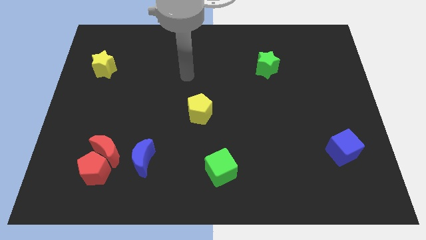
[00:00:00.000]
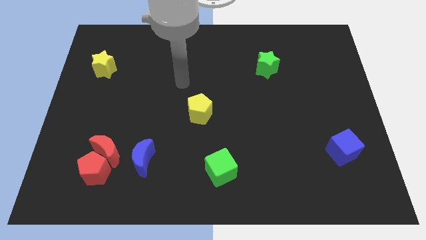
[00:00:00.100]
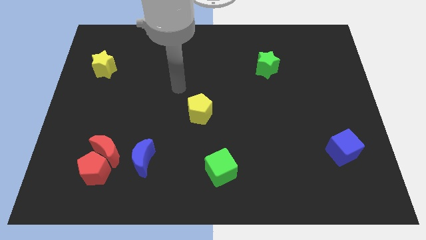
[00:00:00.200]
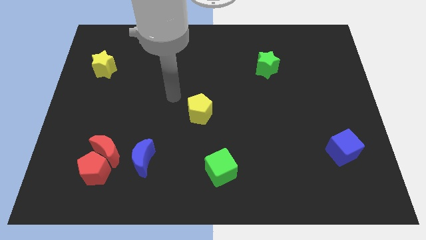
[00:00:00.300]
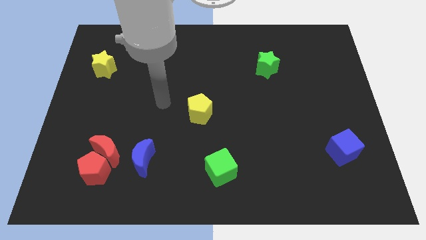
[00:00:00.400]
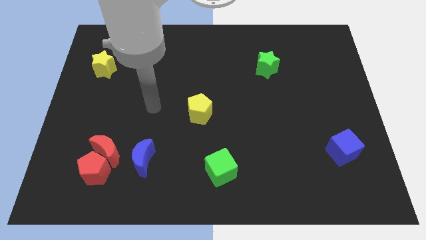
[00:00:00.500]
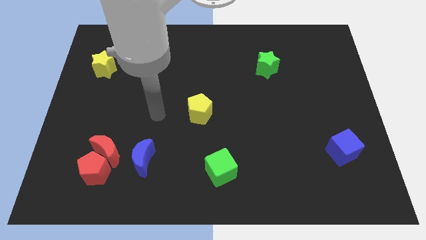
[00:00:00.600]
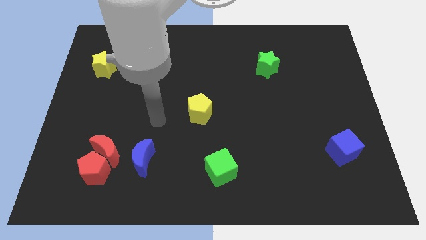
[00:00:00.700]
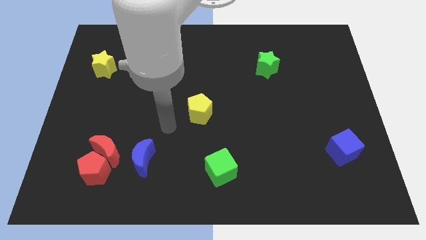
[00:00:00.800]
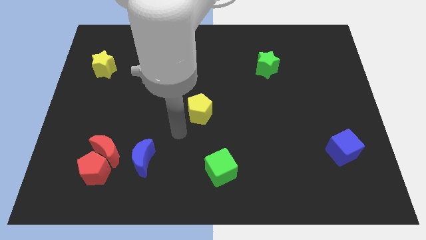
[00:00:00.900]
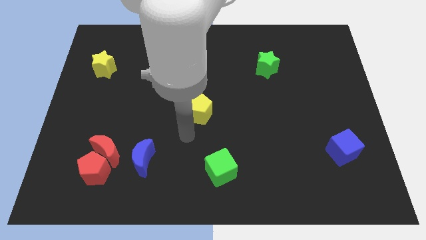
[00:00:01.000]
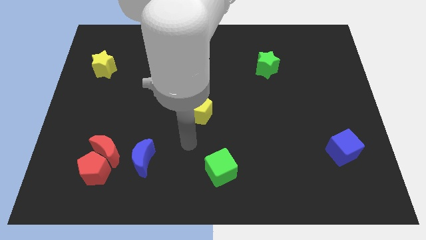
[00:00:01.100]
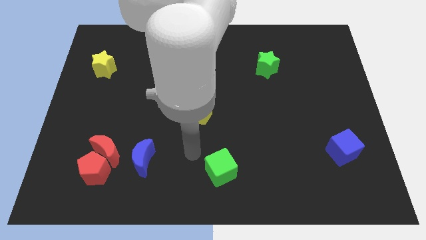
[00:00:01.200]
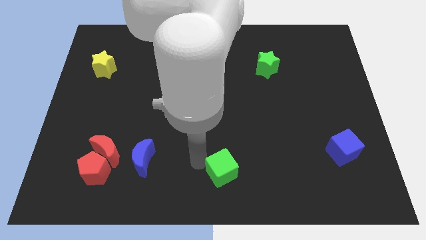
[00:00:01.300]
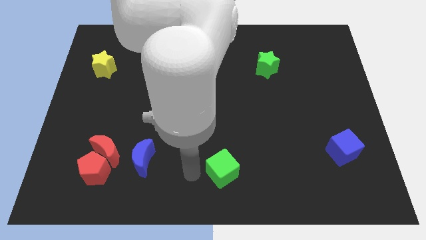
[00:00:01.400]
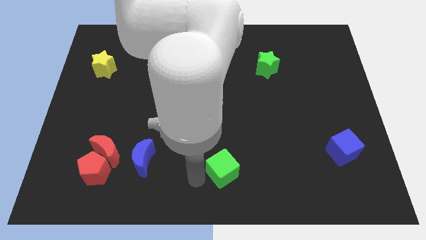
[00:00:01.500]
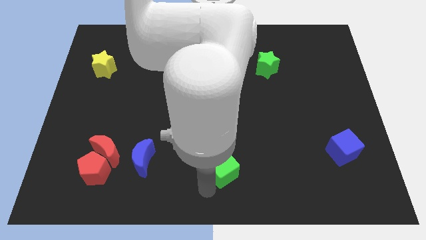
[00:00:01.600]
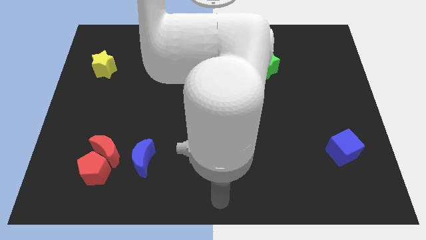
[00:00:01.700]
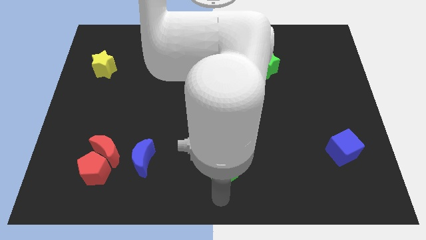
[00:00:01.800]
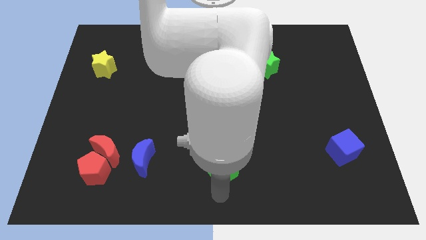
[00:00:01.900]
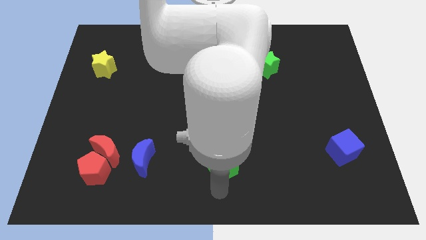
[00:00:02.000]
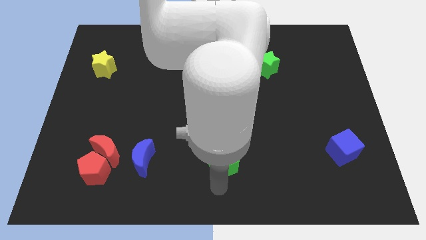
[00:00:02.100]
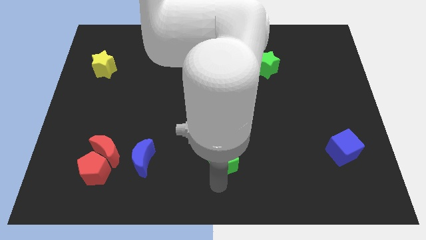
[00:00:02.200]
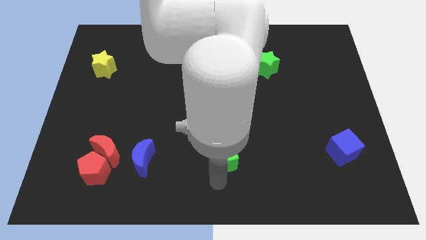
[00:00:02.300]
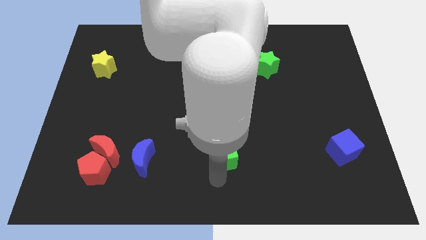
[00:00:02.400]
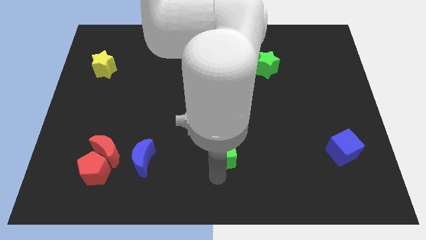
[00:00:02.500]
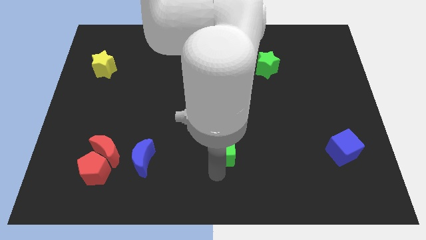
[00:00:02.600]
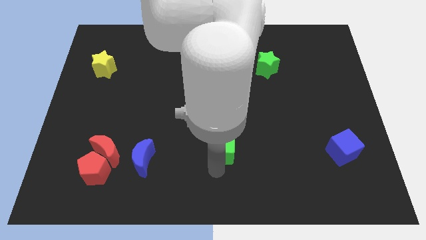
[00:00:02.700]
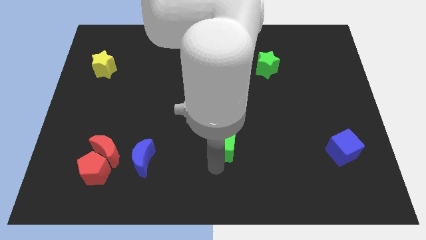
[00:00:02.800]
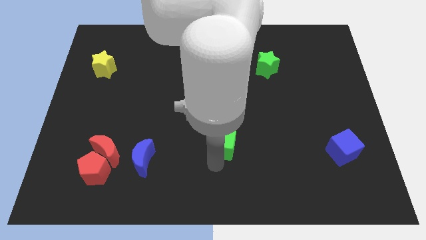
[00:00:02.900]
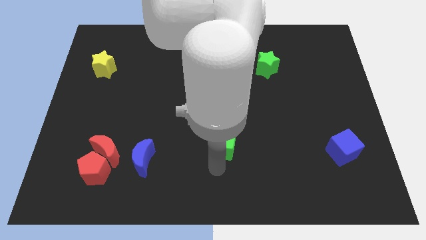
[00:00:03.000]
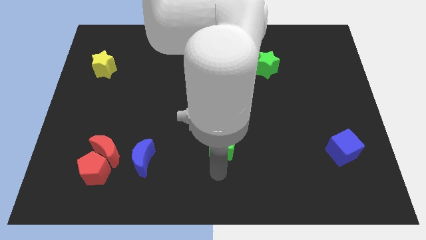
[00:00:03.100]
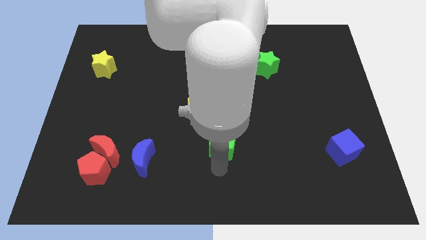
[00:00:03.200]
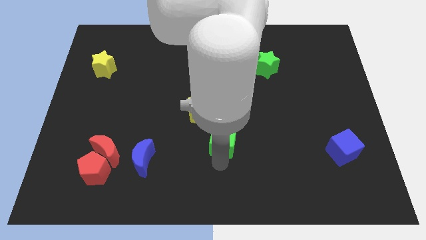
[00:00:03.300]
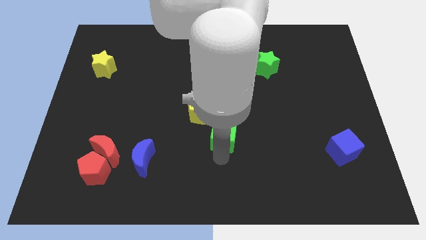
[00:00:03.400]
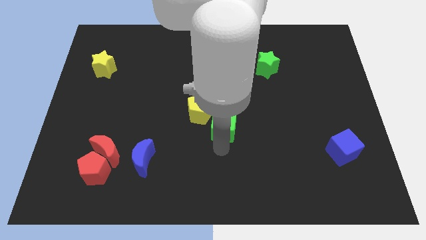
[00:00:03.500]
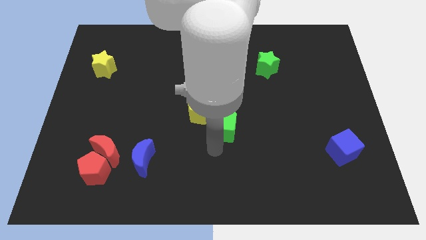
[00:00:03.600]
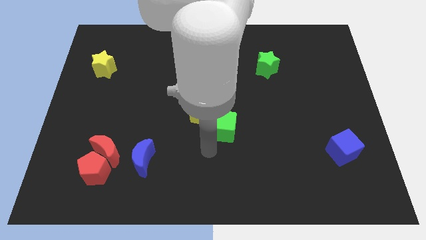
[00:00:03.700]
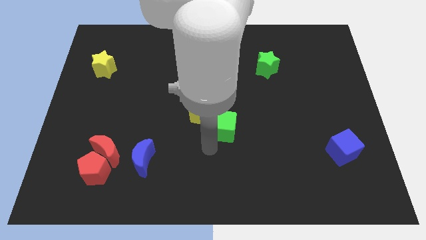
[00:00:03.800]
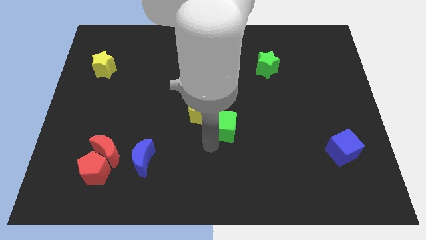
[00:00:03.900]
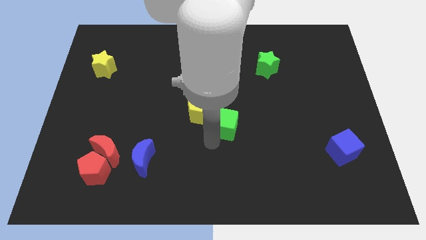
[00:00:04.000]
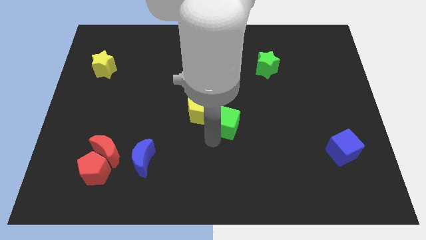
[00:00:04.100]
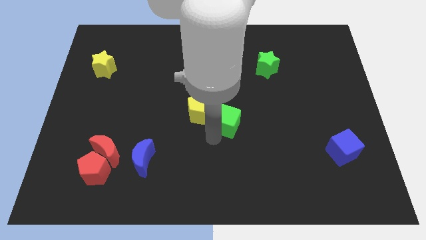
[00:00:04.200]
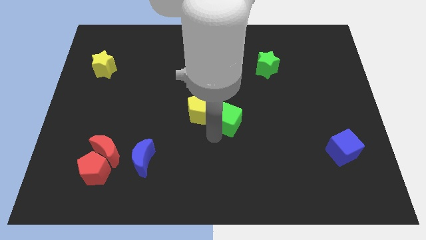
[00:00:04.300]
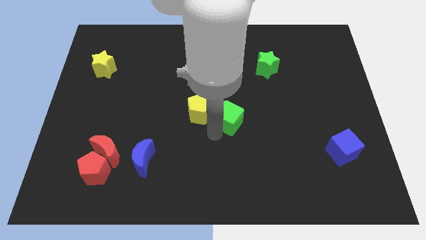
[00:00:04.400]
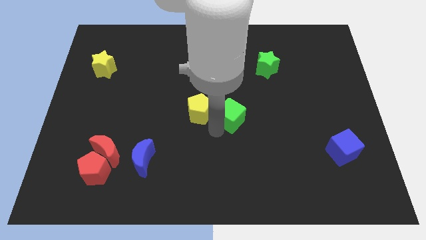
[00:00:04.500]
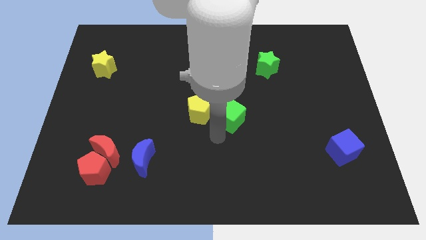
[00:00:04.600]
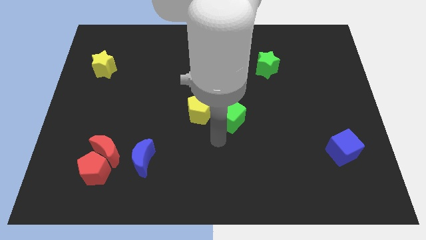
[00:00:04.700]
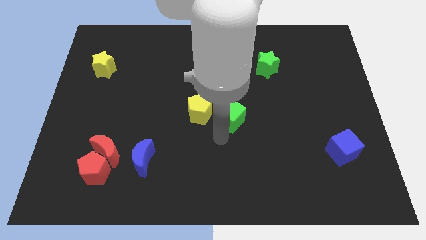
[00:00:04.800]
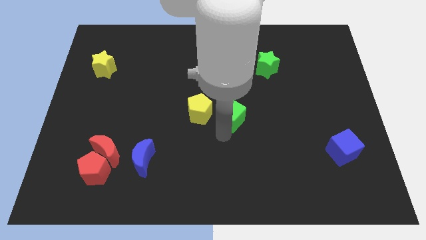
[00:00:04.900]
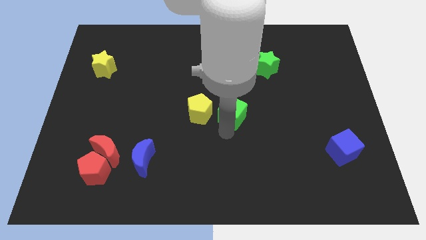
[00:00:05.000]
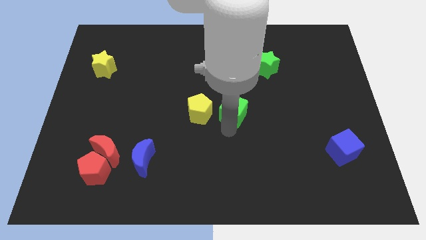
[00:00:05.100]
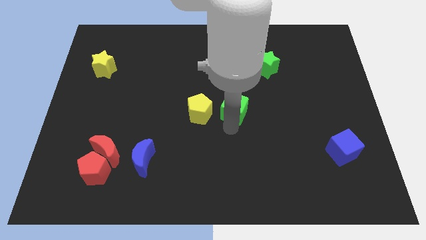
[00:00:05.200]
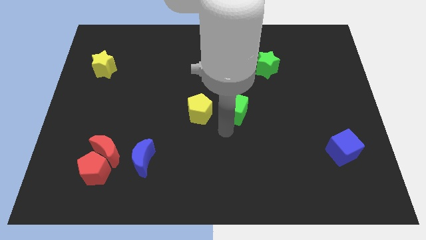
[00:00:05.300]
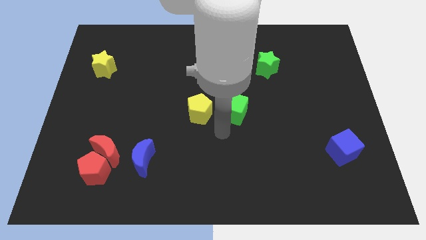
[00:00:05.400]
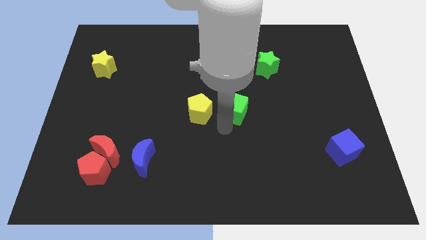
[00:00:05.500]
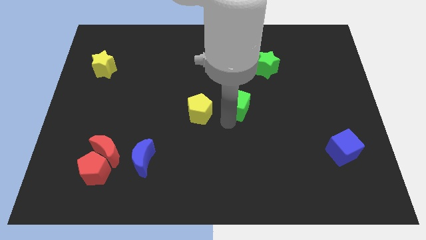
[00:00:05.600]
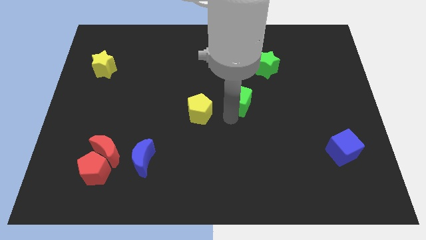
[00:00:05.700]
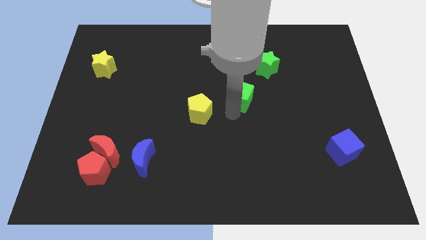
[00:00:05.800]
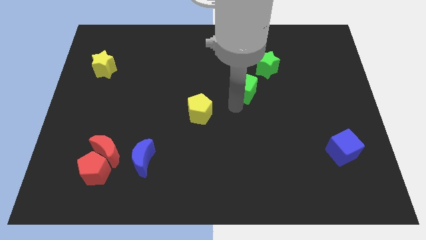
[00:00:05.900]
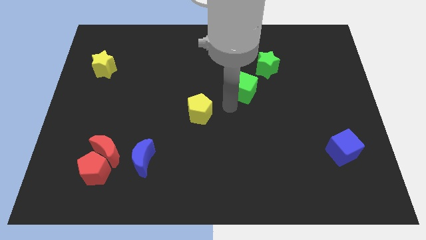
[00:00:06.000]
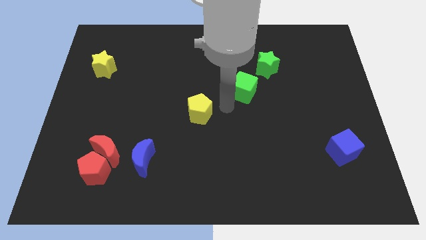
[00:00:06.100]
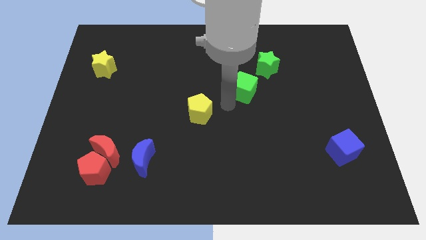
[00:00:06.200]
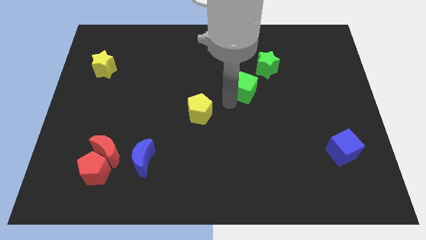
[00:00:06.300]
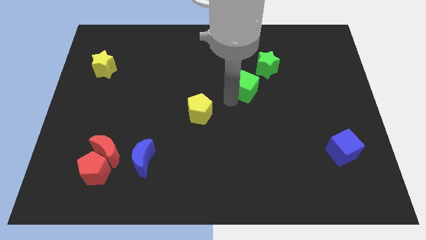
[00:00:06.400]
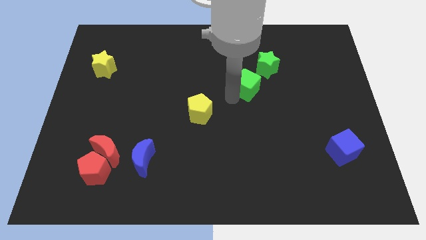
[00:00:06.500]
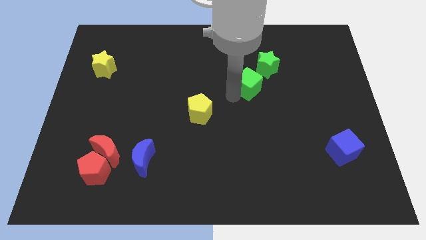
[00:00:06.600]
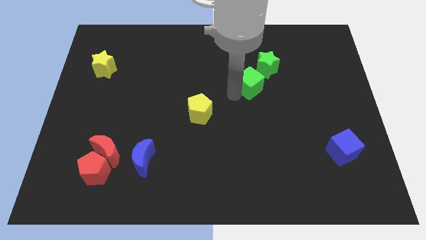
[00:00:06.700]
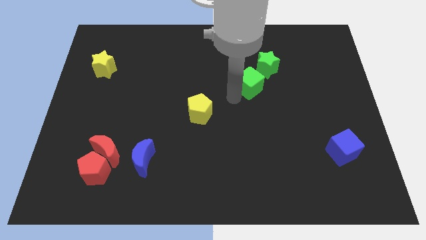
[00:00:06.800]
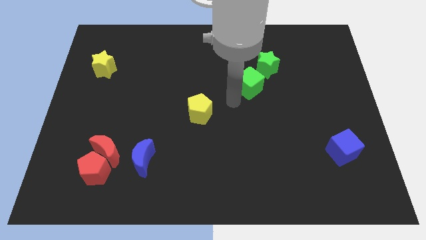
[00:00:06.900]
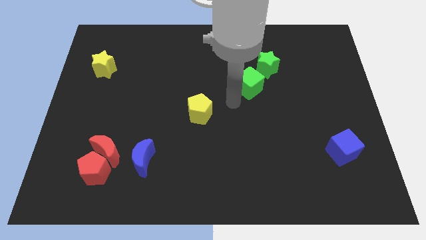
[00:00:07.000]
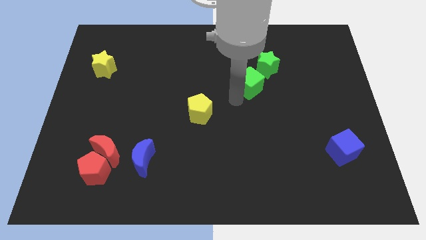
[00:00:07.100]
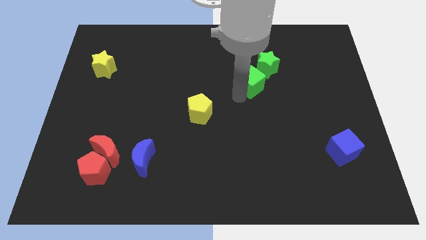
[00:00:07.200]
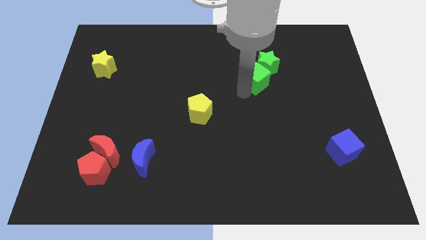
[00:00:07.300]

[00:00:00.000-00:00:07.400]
move the green cube towards the green star

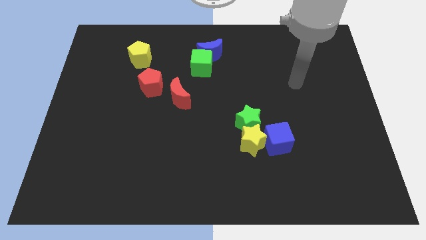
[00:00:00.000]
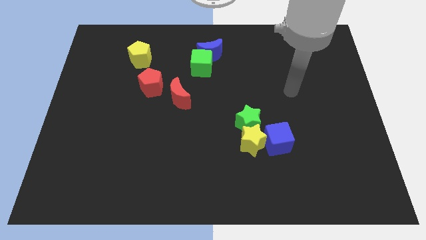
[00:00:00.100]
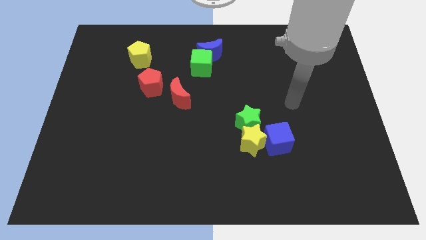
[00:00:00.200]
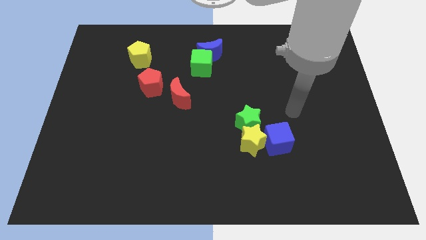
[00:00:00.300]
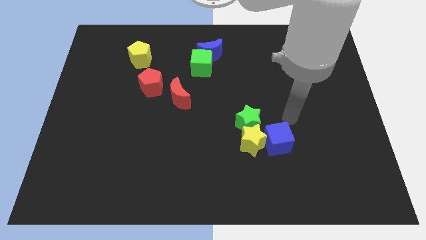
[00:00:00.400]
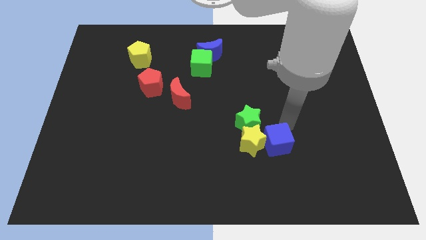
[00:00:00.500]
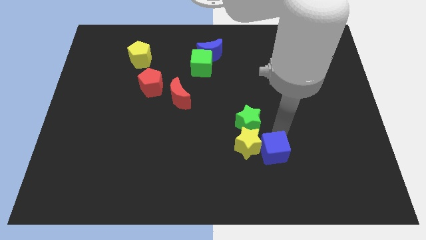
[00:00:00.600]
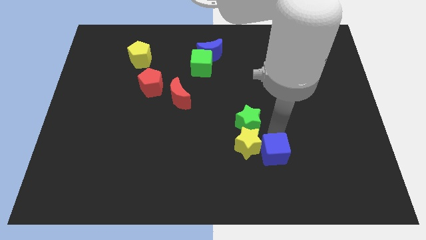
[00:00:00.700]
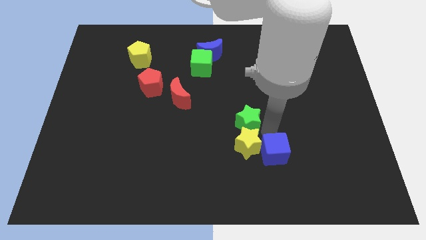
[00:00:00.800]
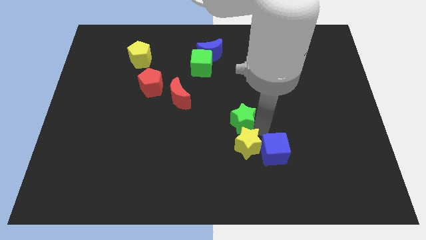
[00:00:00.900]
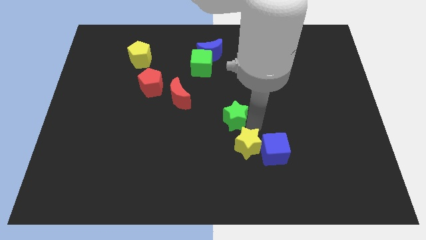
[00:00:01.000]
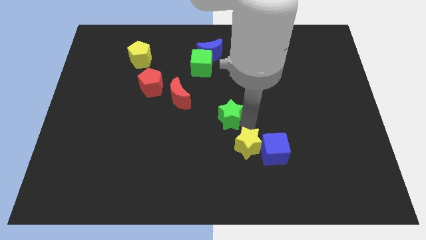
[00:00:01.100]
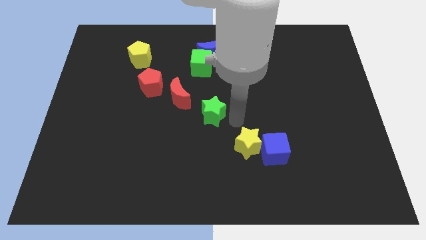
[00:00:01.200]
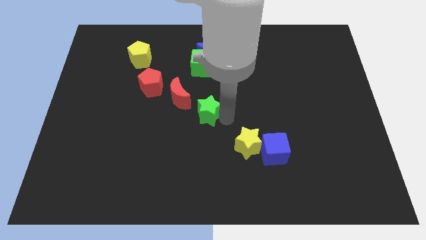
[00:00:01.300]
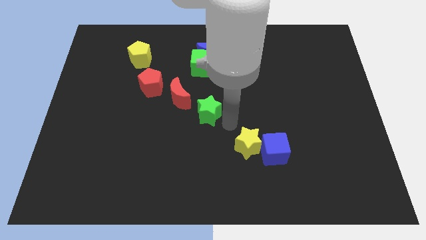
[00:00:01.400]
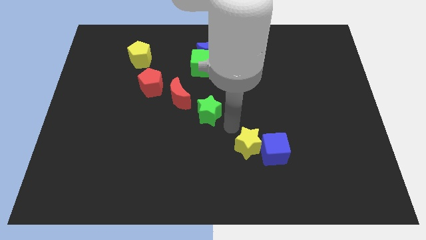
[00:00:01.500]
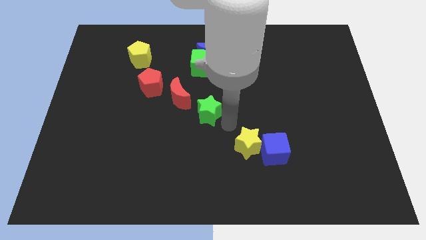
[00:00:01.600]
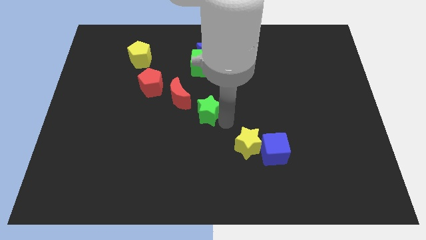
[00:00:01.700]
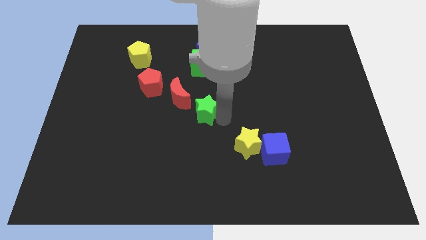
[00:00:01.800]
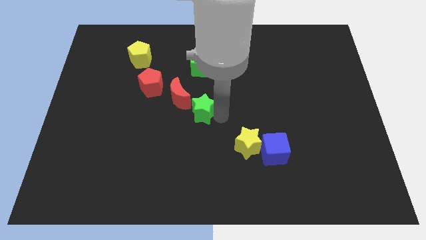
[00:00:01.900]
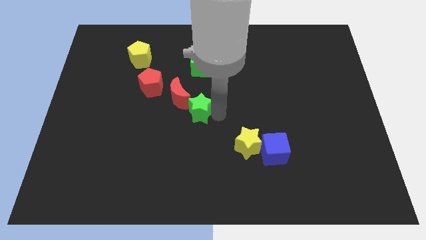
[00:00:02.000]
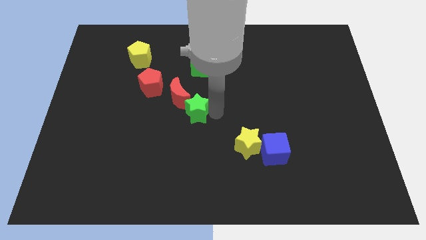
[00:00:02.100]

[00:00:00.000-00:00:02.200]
push the green star to the red moon
